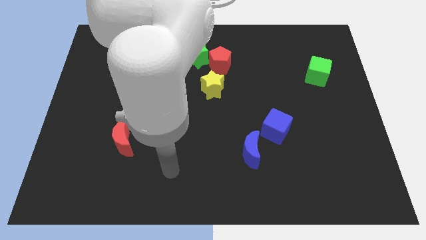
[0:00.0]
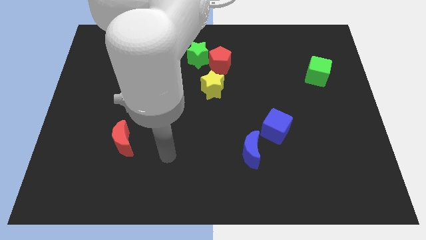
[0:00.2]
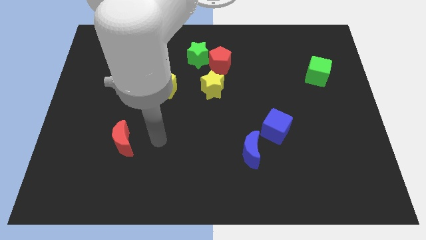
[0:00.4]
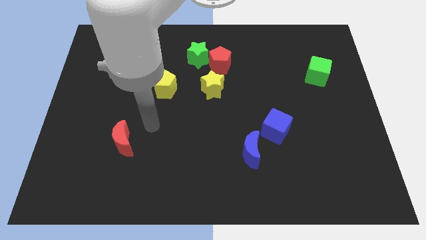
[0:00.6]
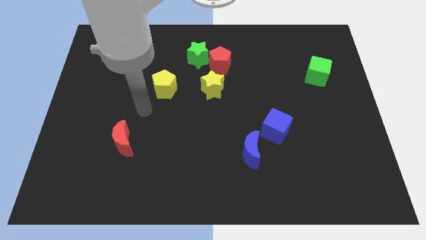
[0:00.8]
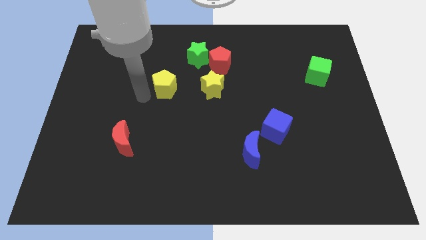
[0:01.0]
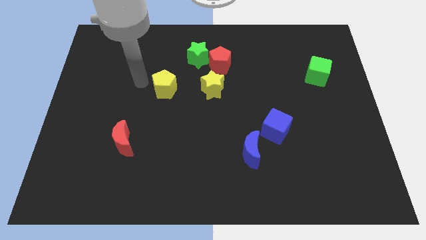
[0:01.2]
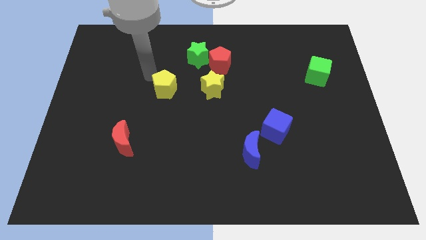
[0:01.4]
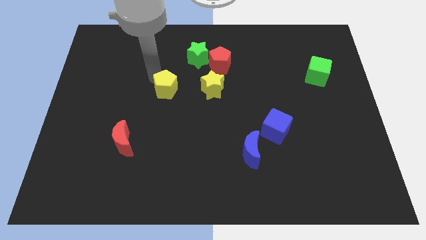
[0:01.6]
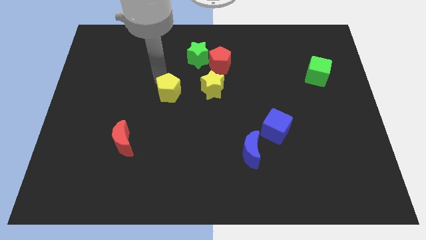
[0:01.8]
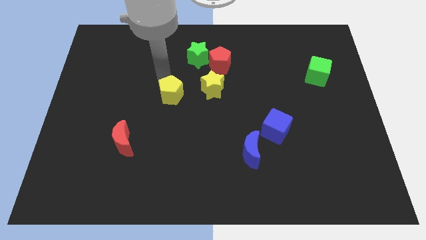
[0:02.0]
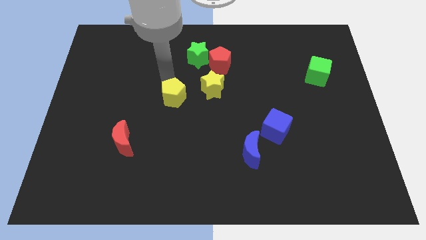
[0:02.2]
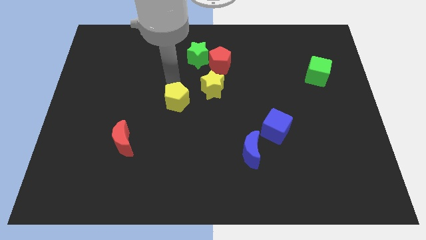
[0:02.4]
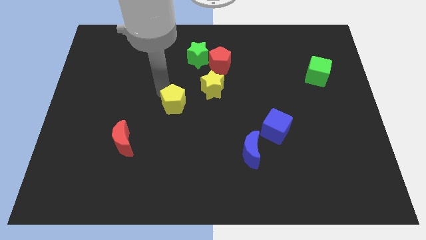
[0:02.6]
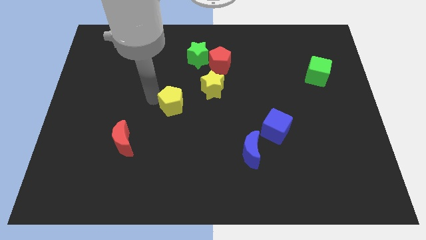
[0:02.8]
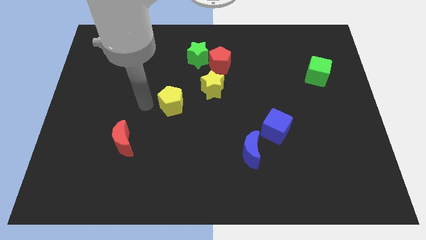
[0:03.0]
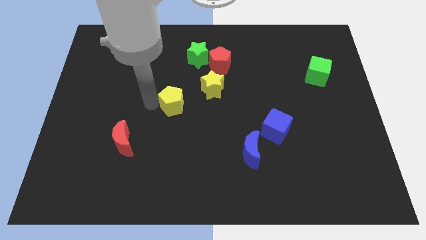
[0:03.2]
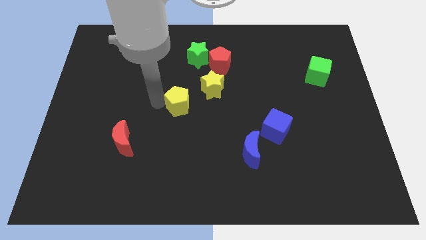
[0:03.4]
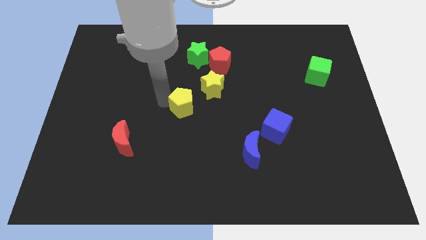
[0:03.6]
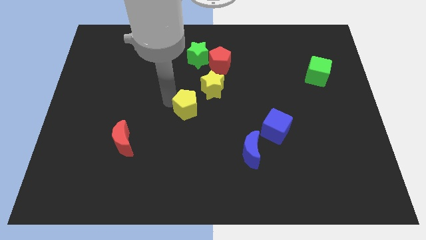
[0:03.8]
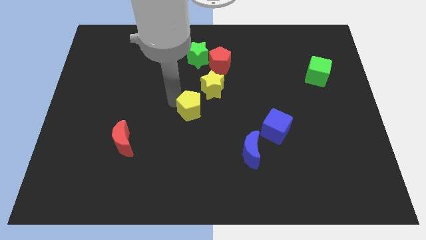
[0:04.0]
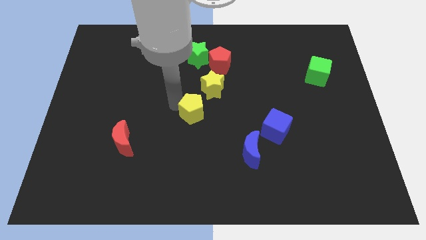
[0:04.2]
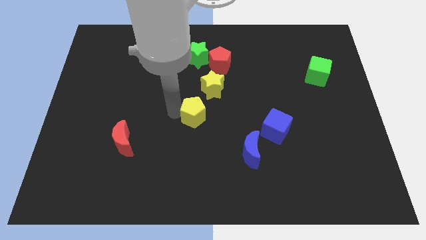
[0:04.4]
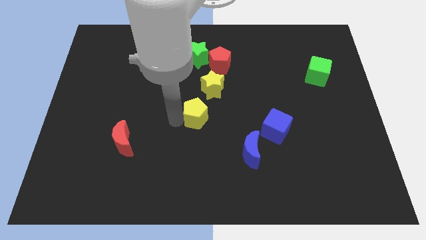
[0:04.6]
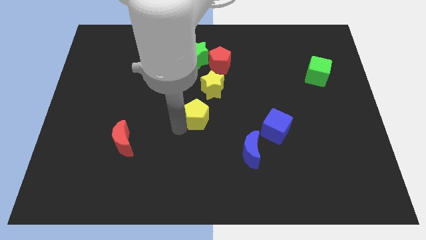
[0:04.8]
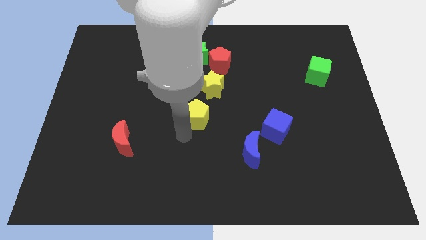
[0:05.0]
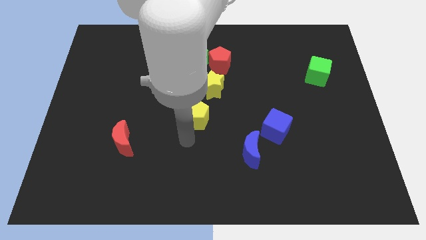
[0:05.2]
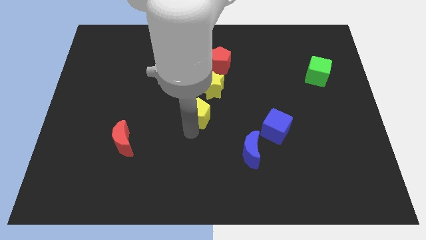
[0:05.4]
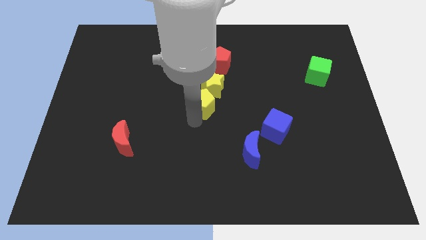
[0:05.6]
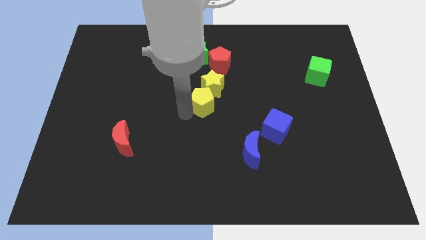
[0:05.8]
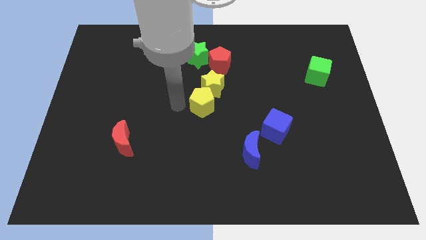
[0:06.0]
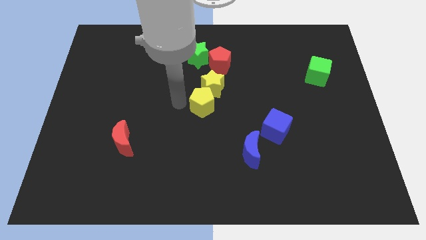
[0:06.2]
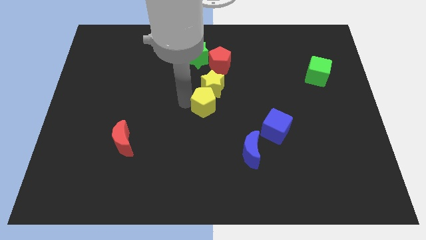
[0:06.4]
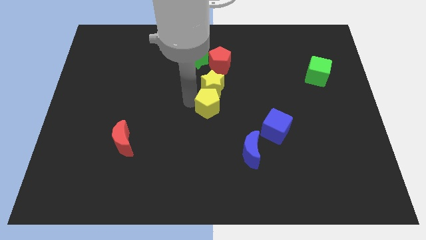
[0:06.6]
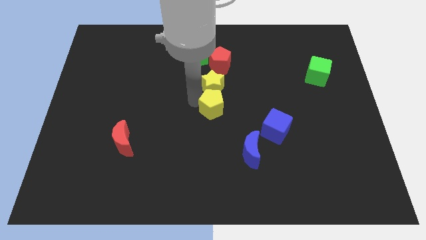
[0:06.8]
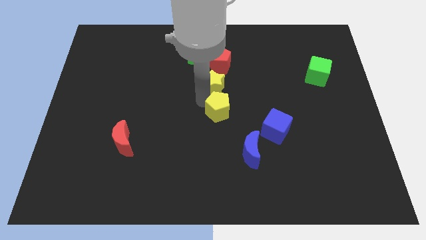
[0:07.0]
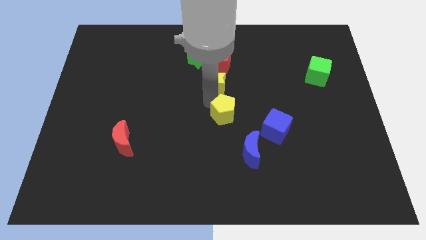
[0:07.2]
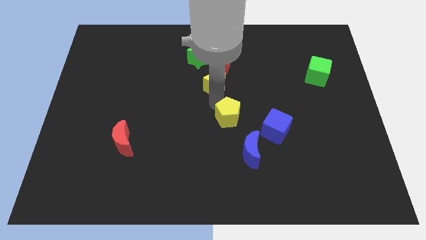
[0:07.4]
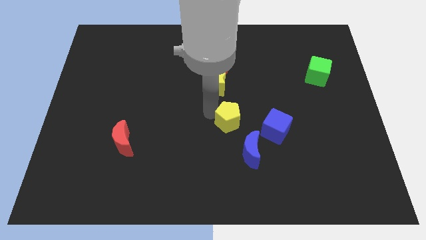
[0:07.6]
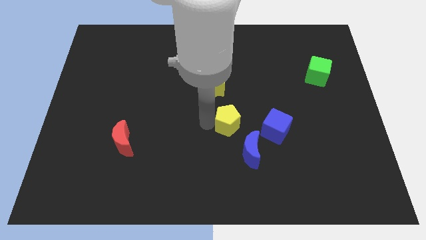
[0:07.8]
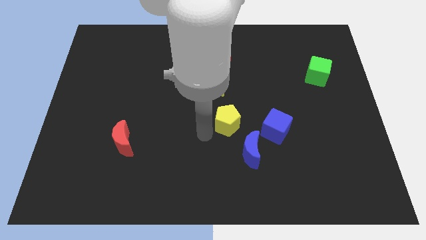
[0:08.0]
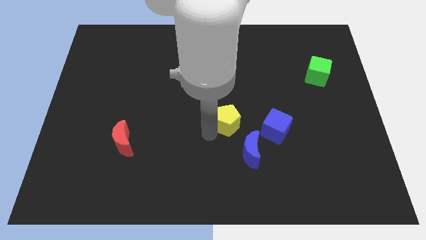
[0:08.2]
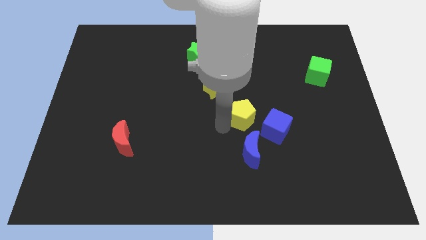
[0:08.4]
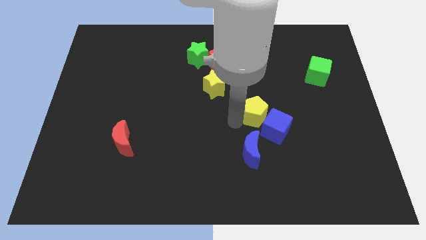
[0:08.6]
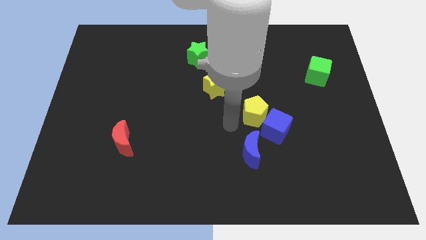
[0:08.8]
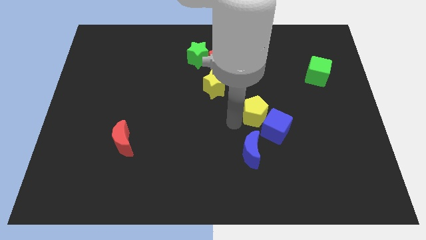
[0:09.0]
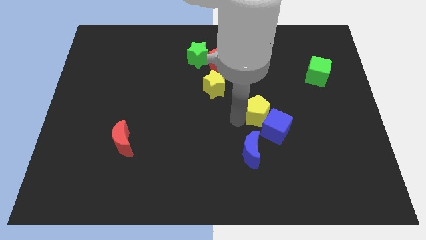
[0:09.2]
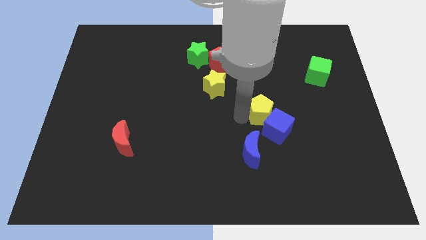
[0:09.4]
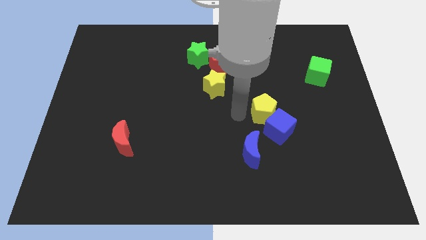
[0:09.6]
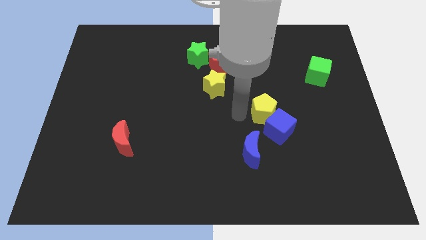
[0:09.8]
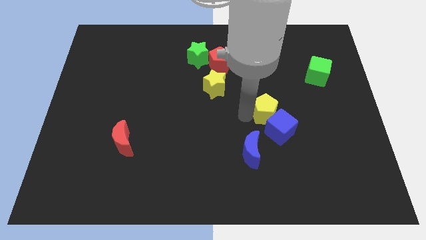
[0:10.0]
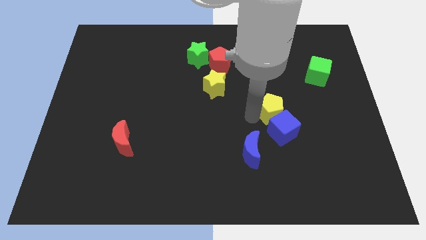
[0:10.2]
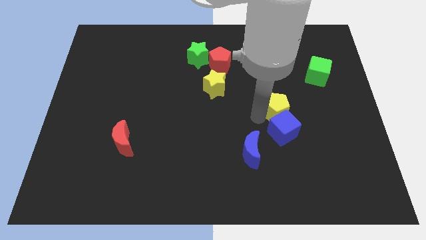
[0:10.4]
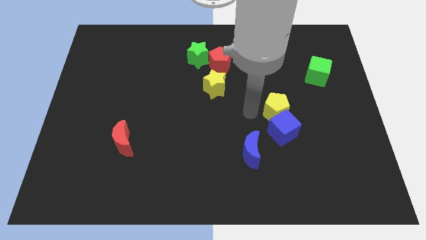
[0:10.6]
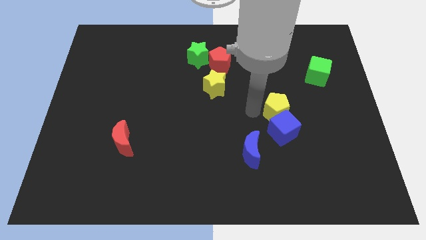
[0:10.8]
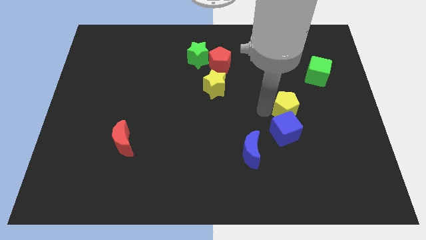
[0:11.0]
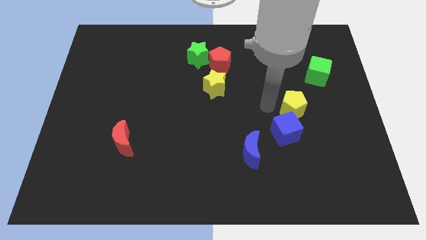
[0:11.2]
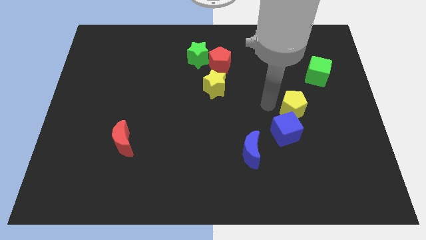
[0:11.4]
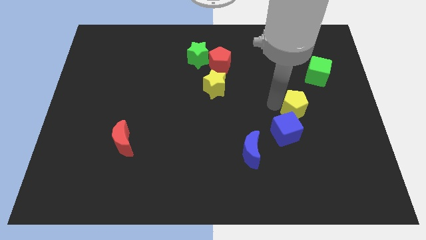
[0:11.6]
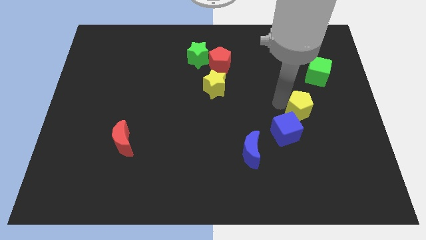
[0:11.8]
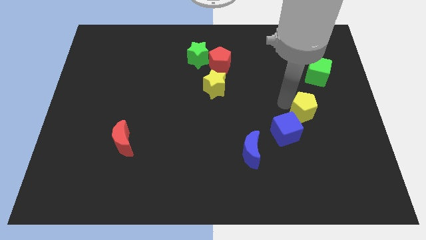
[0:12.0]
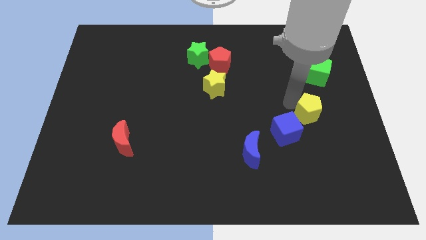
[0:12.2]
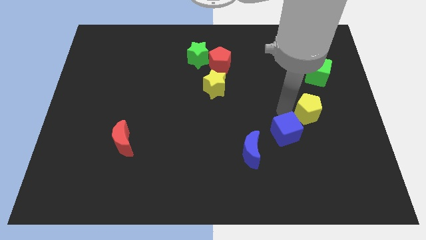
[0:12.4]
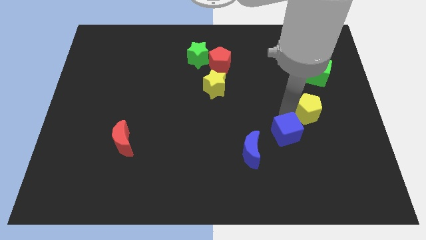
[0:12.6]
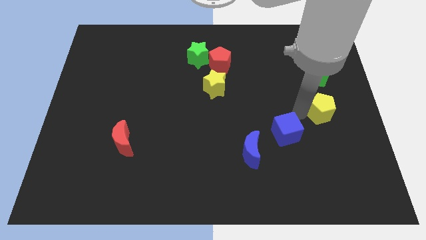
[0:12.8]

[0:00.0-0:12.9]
slide the yellow pentagon to the right side of the board

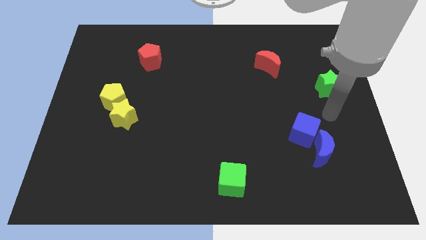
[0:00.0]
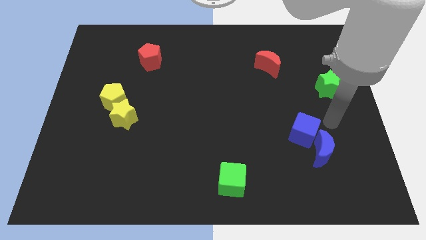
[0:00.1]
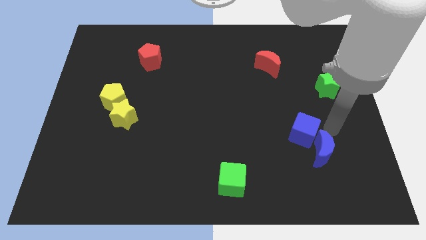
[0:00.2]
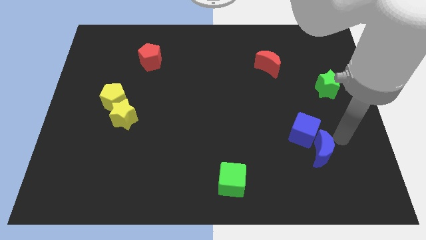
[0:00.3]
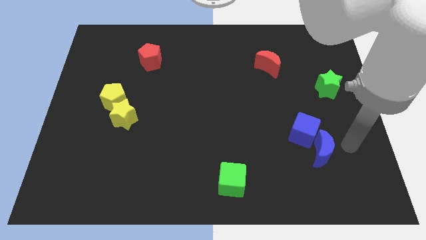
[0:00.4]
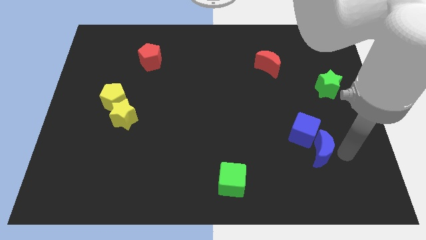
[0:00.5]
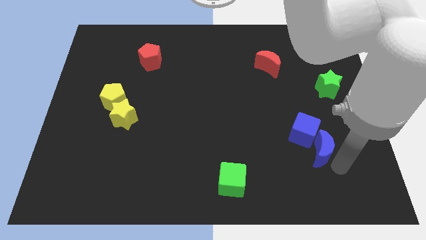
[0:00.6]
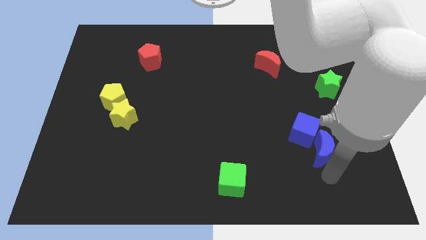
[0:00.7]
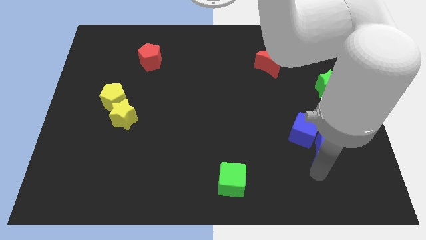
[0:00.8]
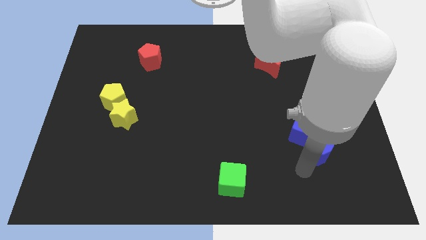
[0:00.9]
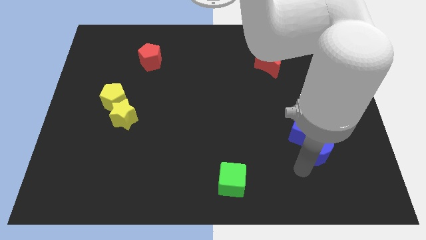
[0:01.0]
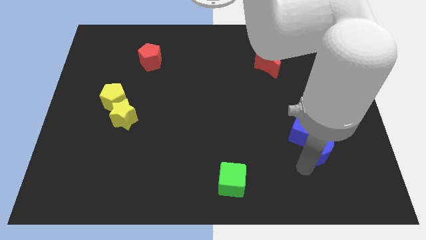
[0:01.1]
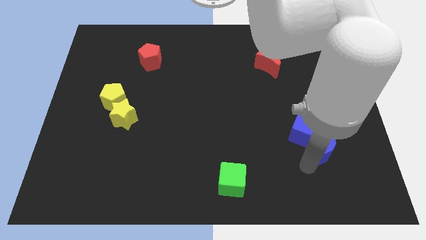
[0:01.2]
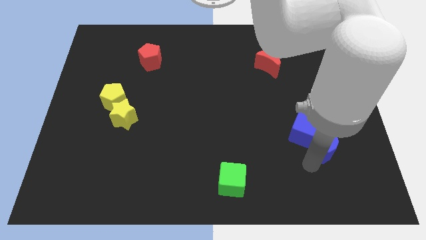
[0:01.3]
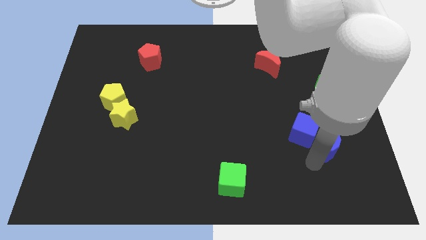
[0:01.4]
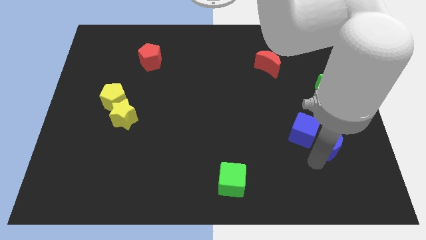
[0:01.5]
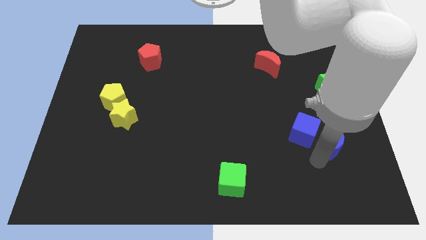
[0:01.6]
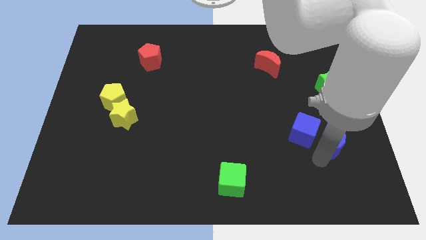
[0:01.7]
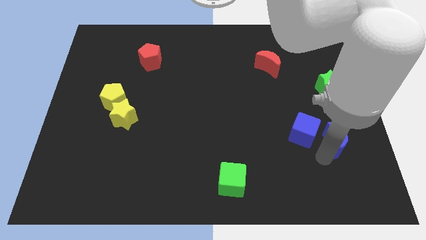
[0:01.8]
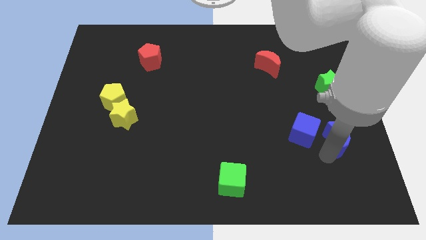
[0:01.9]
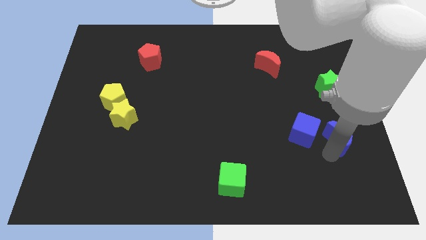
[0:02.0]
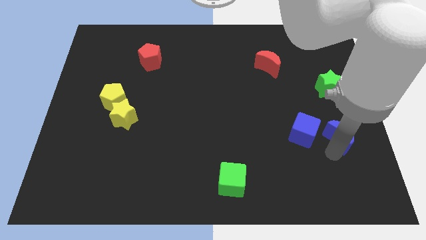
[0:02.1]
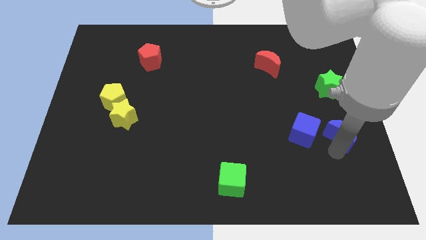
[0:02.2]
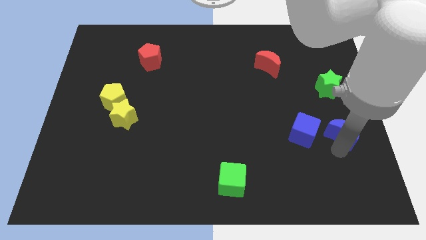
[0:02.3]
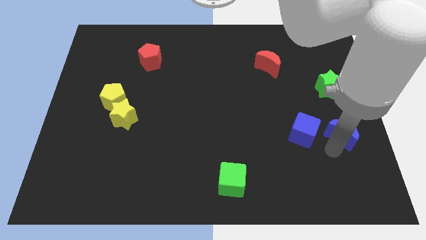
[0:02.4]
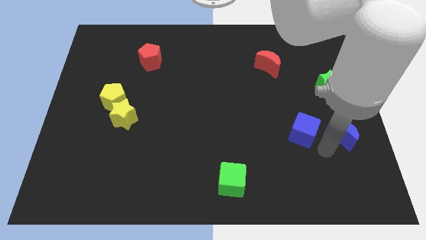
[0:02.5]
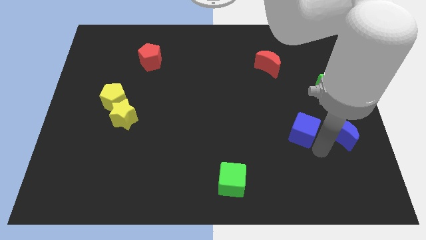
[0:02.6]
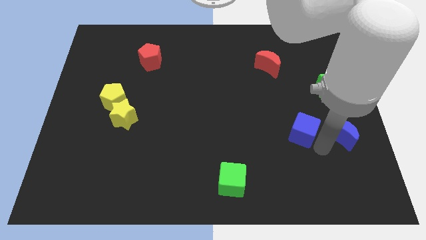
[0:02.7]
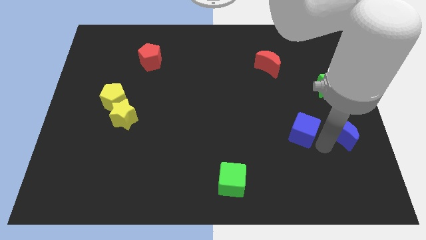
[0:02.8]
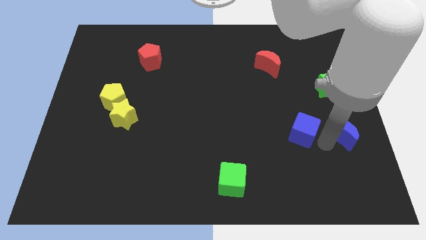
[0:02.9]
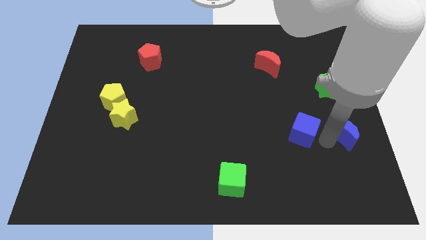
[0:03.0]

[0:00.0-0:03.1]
push the blue moon to the right side
